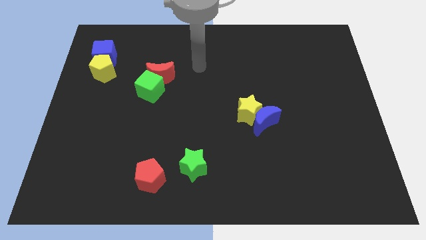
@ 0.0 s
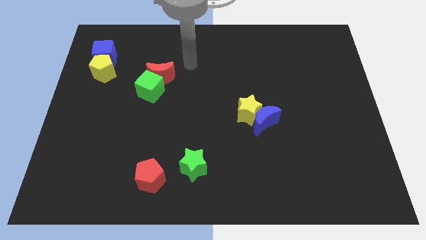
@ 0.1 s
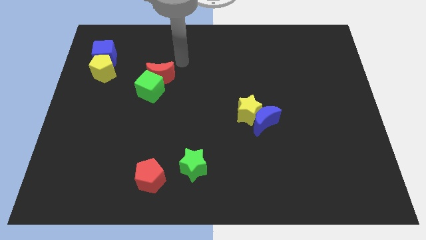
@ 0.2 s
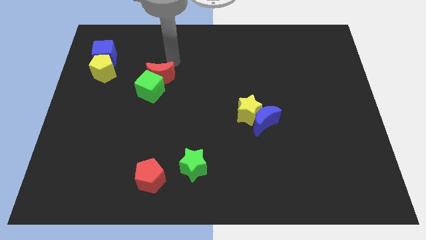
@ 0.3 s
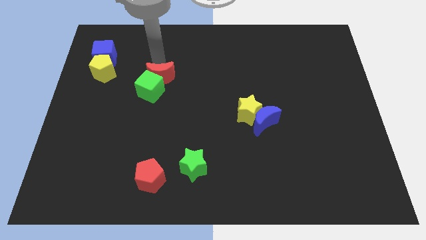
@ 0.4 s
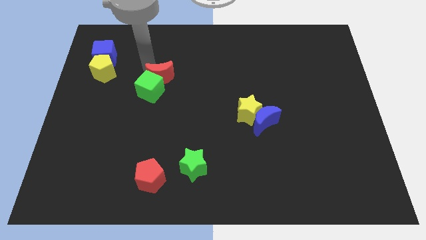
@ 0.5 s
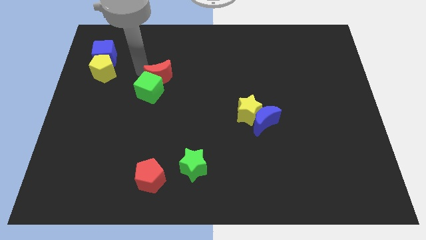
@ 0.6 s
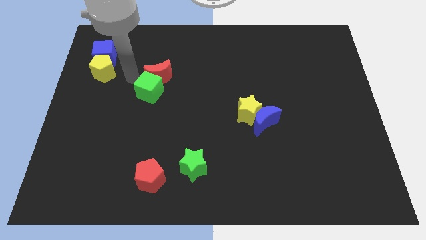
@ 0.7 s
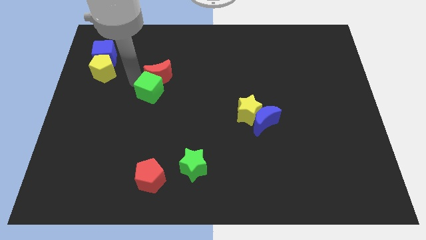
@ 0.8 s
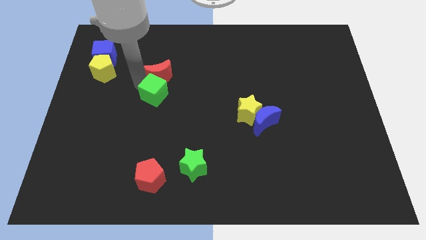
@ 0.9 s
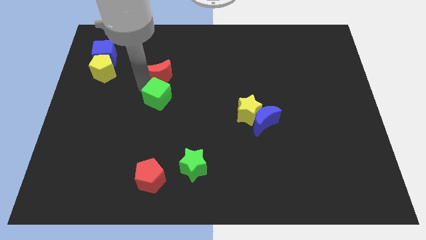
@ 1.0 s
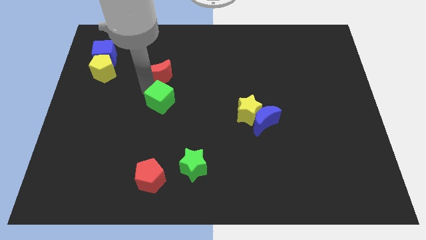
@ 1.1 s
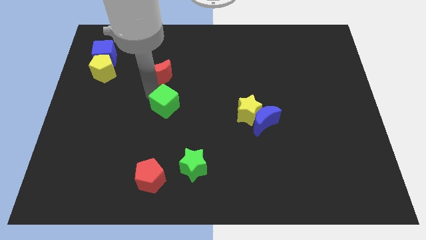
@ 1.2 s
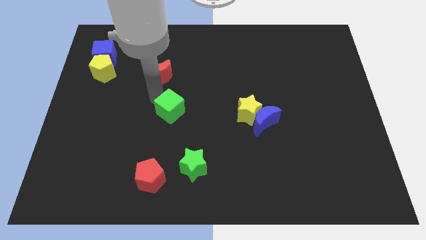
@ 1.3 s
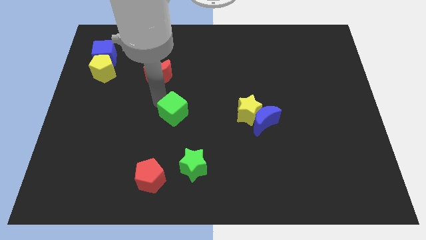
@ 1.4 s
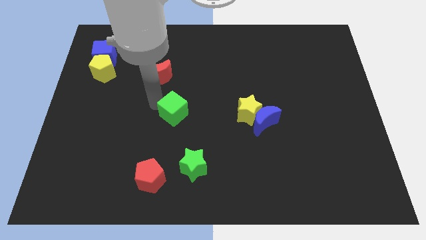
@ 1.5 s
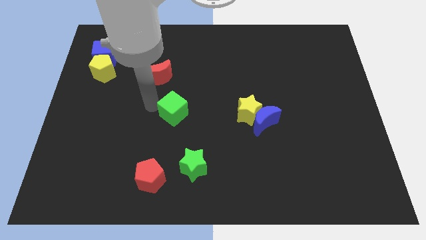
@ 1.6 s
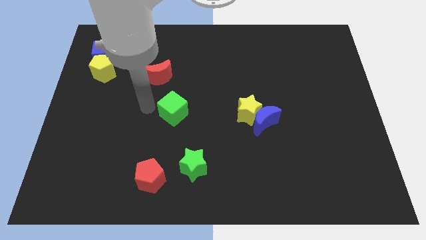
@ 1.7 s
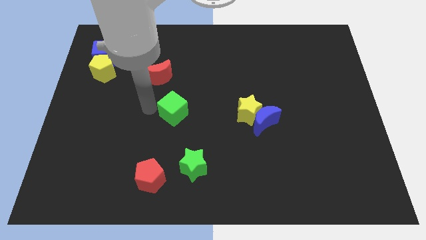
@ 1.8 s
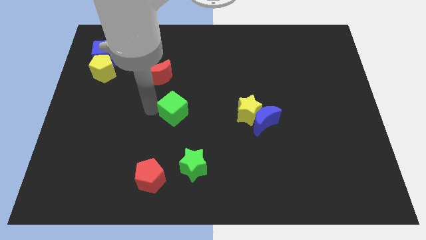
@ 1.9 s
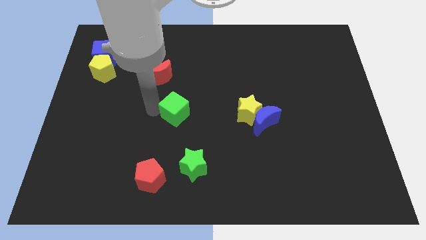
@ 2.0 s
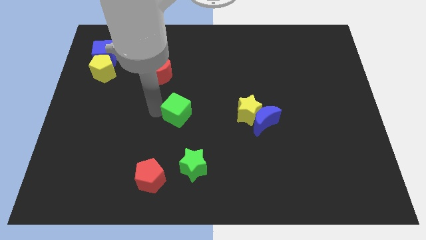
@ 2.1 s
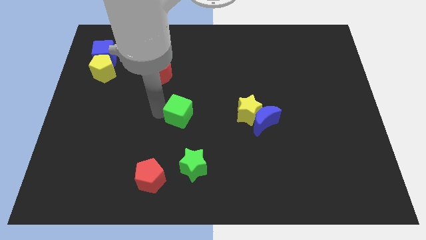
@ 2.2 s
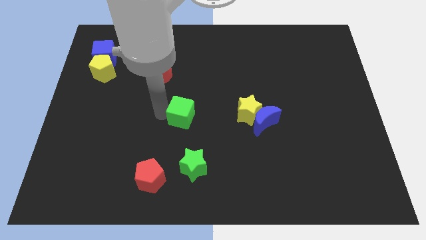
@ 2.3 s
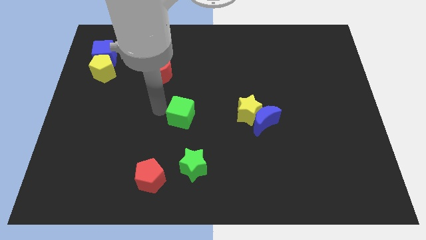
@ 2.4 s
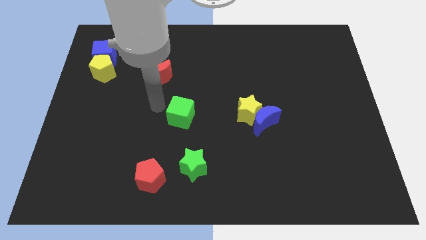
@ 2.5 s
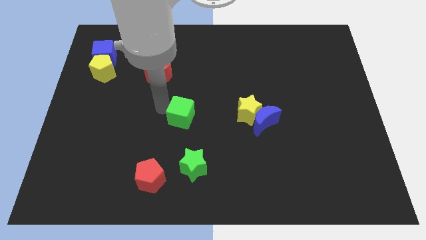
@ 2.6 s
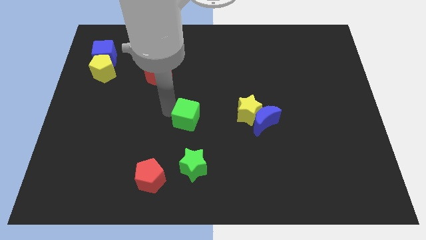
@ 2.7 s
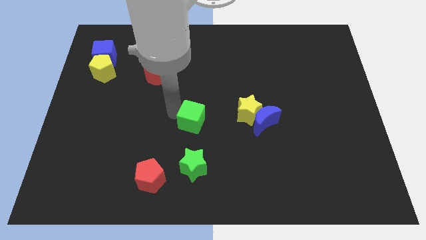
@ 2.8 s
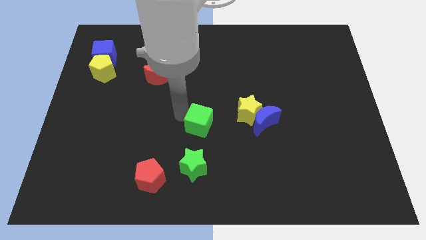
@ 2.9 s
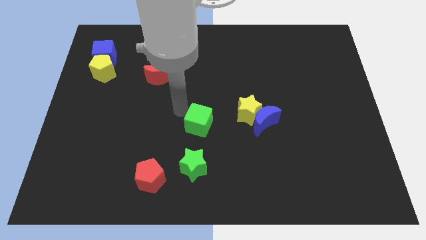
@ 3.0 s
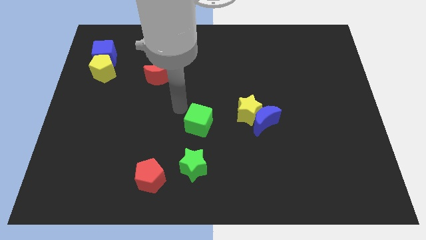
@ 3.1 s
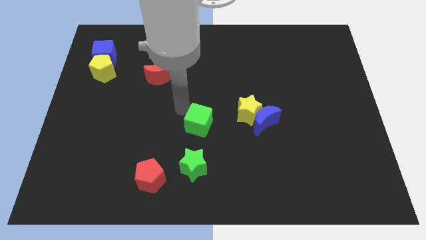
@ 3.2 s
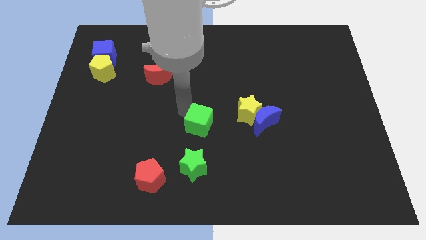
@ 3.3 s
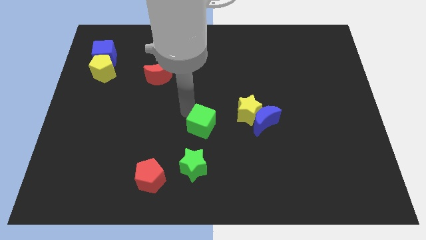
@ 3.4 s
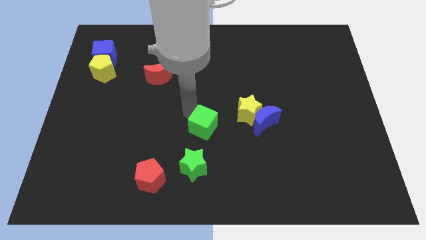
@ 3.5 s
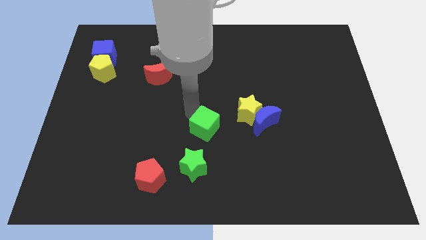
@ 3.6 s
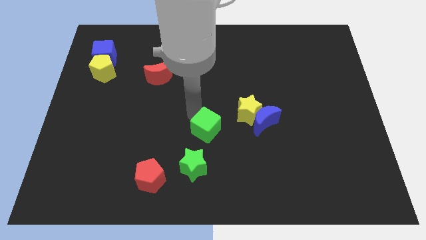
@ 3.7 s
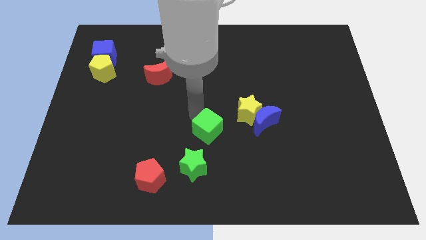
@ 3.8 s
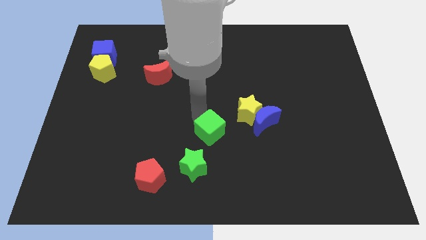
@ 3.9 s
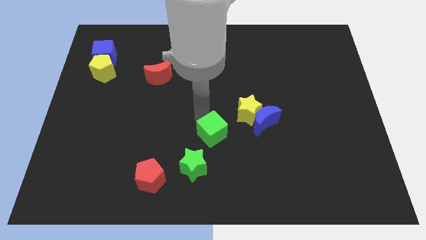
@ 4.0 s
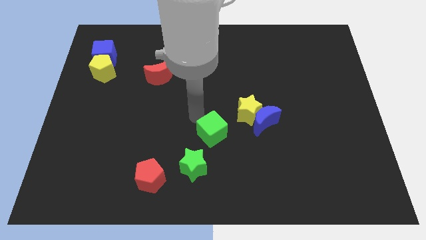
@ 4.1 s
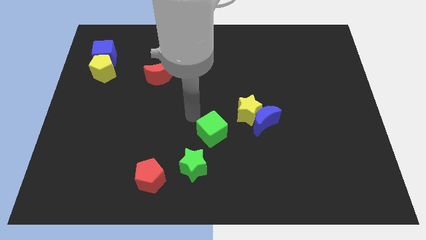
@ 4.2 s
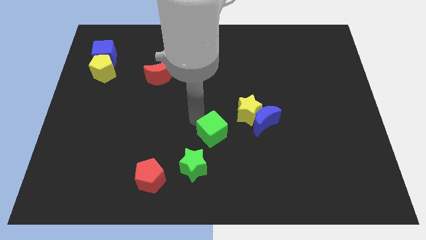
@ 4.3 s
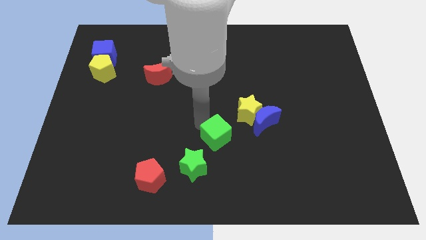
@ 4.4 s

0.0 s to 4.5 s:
slide the green cube down and then right

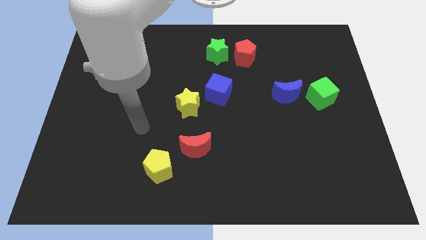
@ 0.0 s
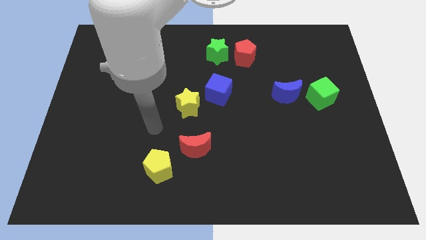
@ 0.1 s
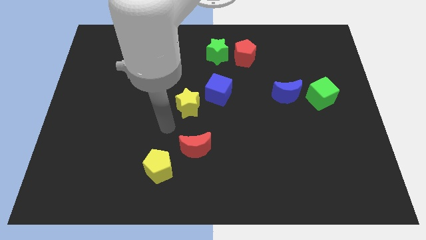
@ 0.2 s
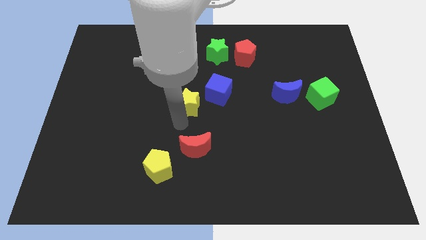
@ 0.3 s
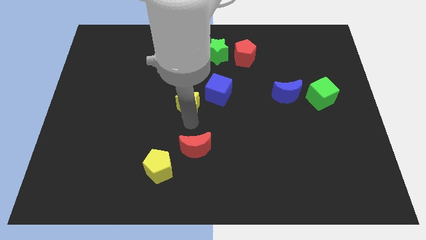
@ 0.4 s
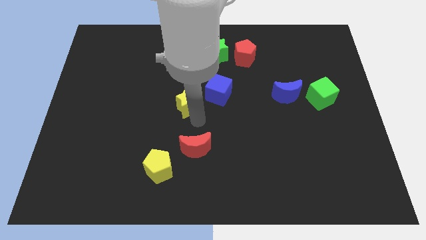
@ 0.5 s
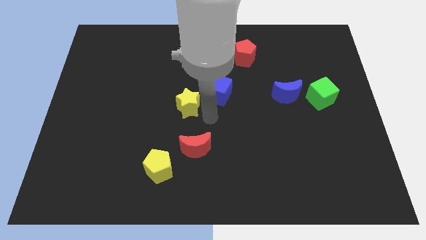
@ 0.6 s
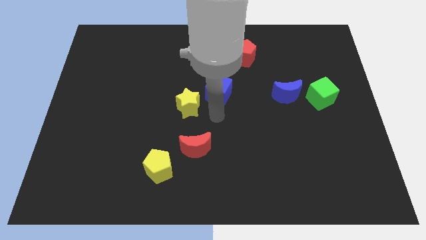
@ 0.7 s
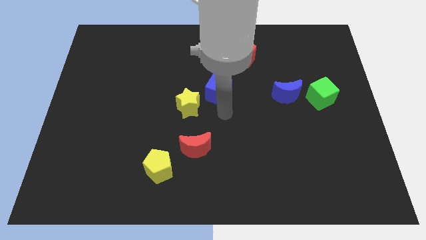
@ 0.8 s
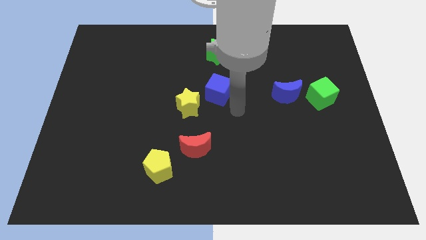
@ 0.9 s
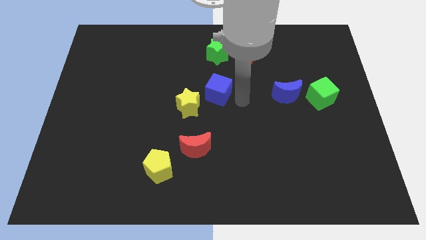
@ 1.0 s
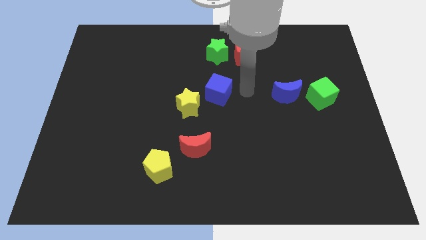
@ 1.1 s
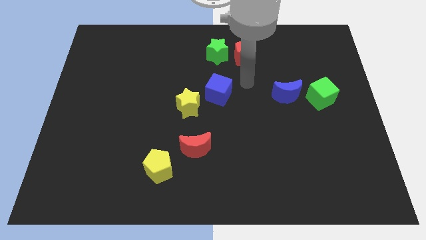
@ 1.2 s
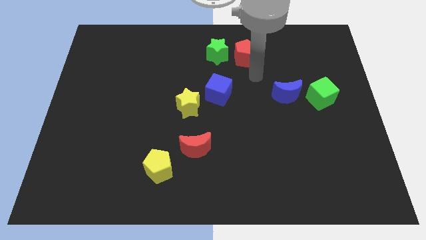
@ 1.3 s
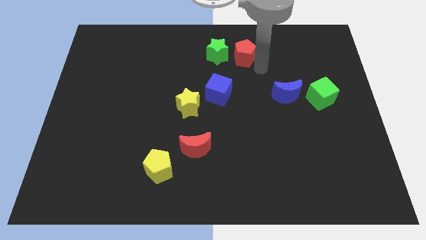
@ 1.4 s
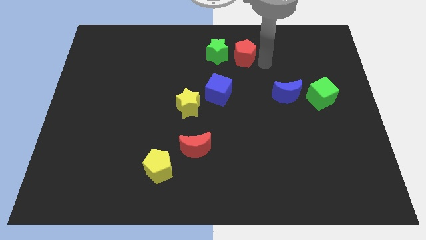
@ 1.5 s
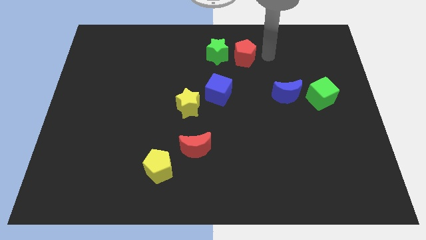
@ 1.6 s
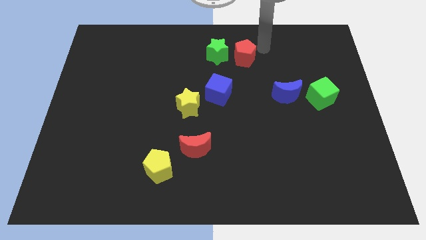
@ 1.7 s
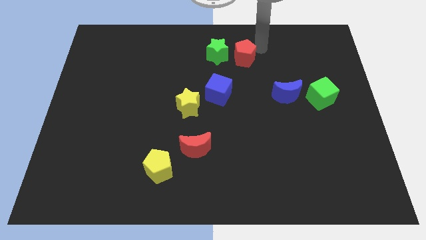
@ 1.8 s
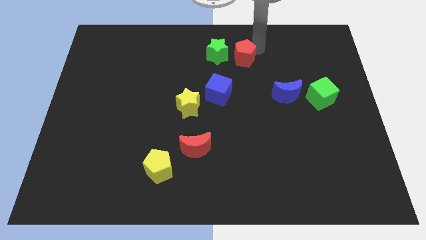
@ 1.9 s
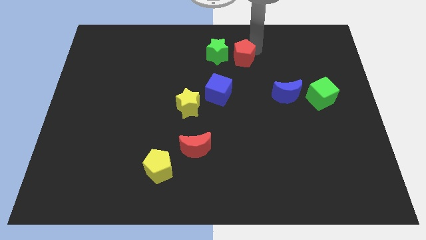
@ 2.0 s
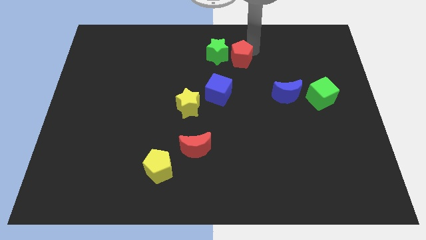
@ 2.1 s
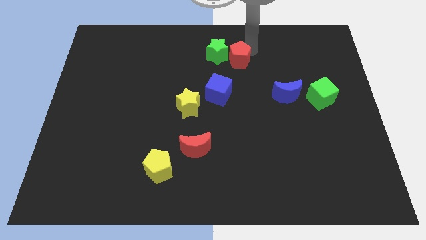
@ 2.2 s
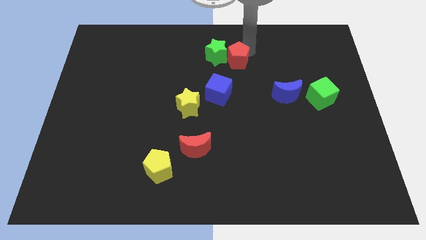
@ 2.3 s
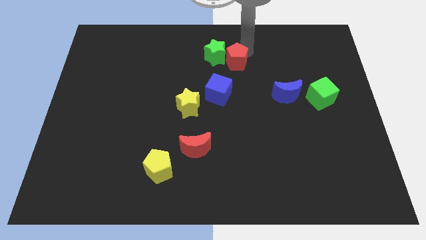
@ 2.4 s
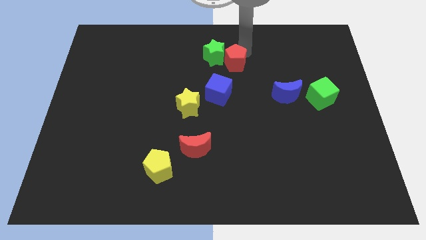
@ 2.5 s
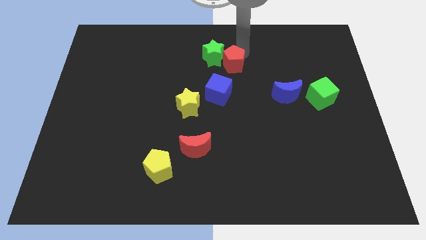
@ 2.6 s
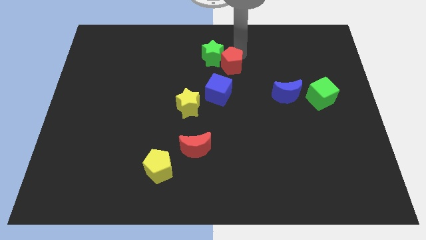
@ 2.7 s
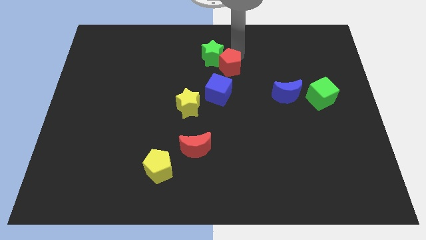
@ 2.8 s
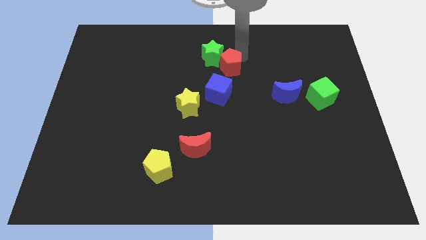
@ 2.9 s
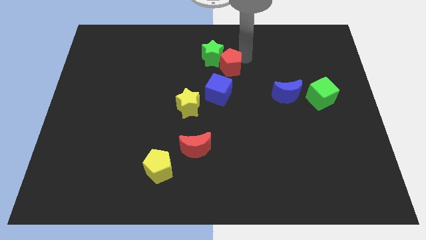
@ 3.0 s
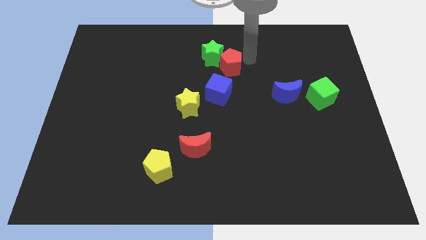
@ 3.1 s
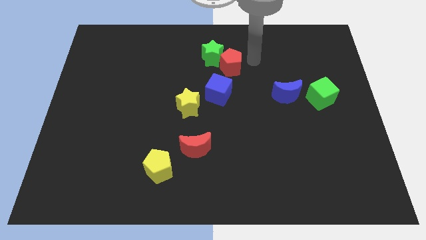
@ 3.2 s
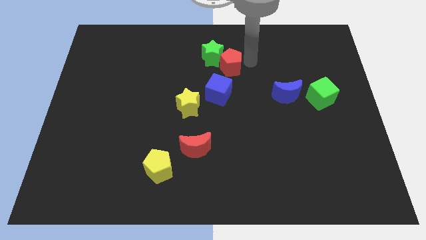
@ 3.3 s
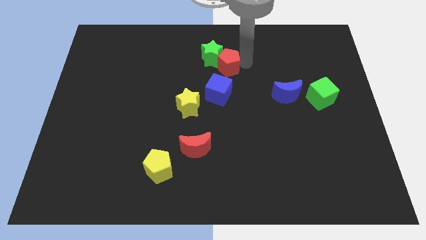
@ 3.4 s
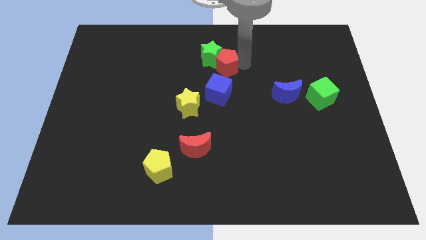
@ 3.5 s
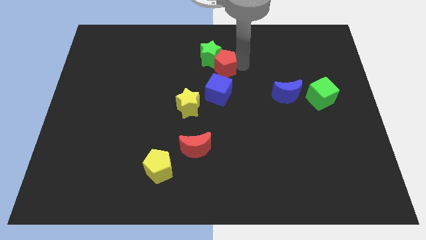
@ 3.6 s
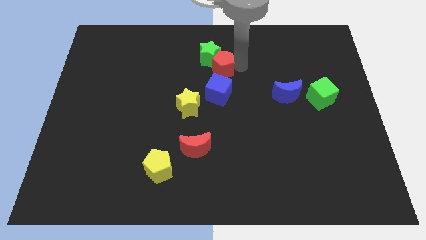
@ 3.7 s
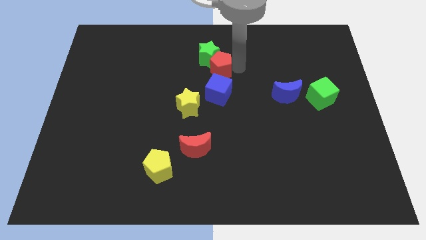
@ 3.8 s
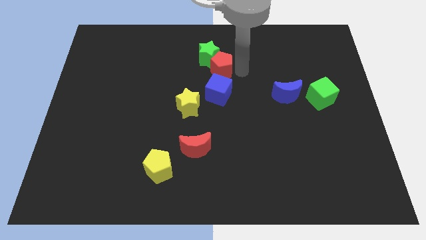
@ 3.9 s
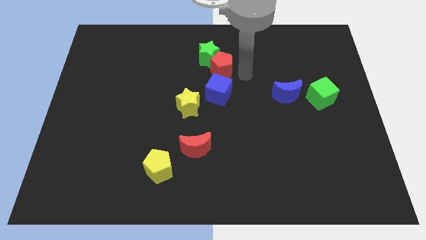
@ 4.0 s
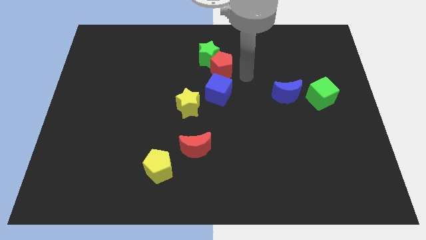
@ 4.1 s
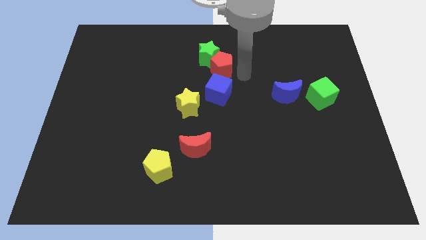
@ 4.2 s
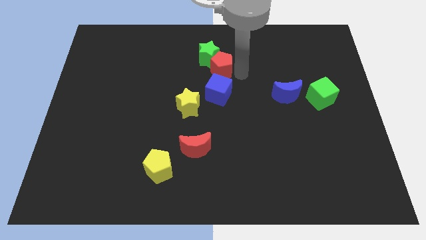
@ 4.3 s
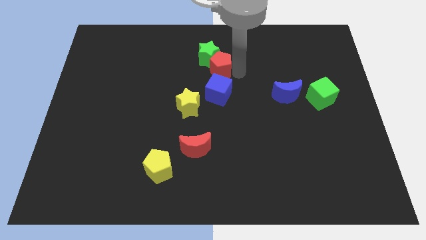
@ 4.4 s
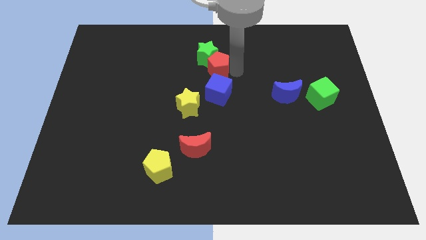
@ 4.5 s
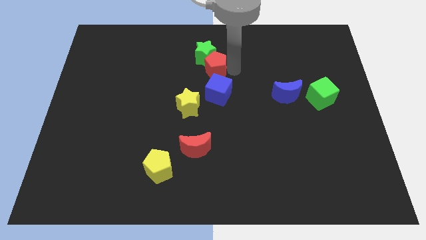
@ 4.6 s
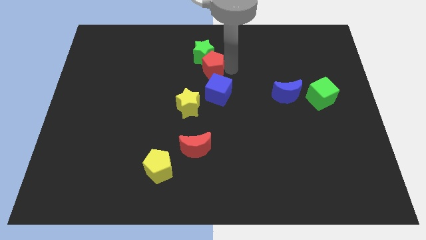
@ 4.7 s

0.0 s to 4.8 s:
move the red pentagon a little to the left
